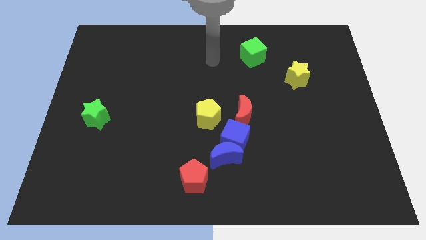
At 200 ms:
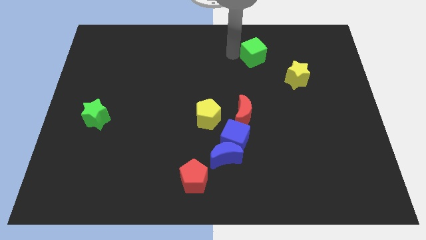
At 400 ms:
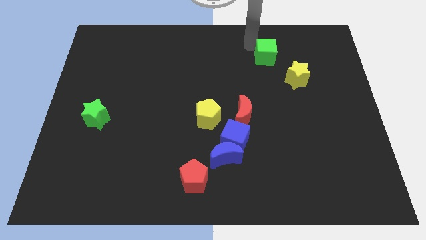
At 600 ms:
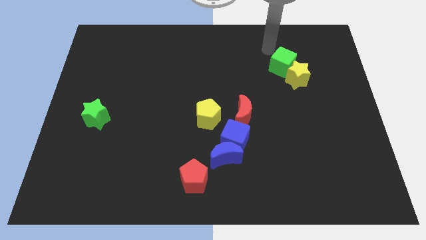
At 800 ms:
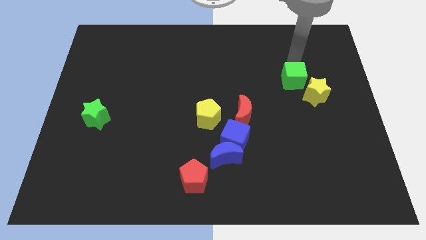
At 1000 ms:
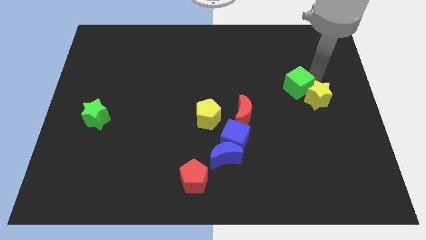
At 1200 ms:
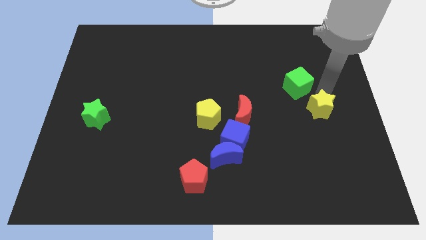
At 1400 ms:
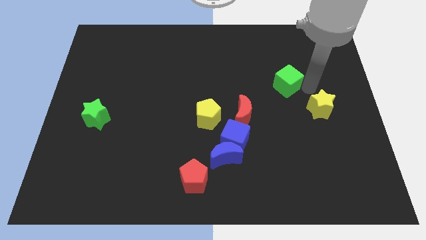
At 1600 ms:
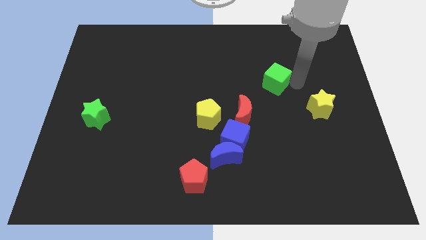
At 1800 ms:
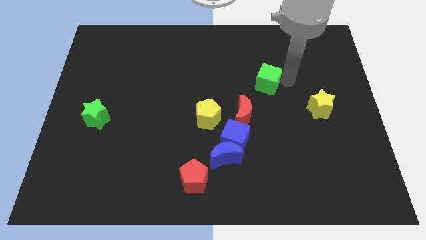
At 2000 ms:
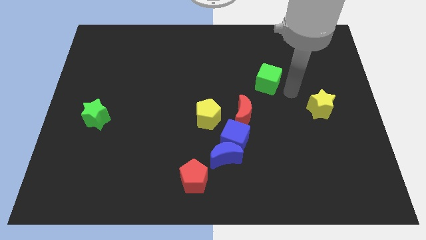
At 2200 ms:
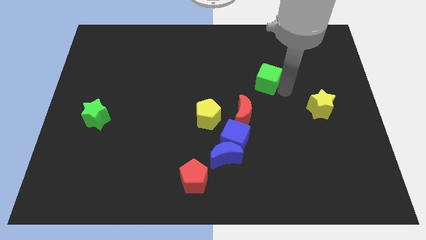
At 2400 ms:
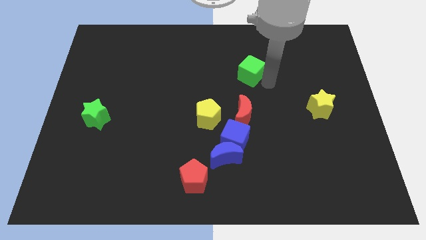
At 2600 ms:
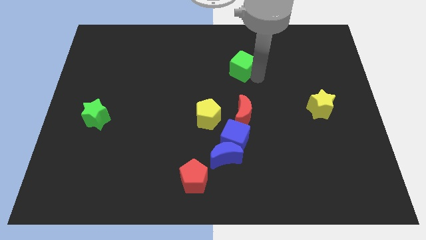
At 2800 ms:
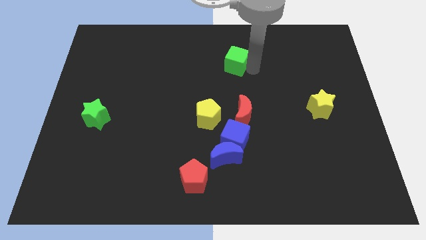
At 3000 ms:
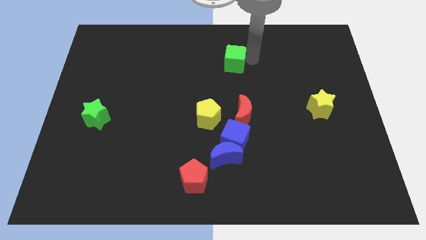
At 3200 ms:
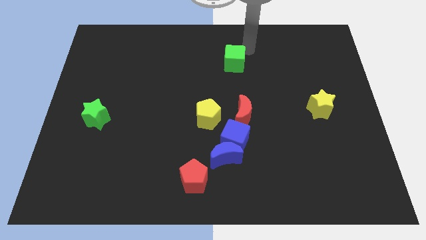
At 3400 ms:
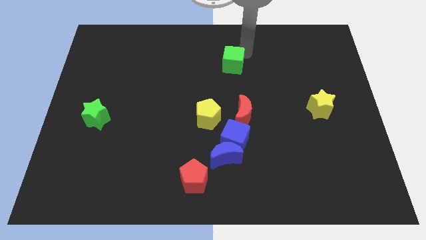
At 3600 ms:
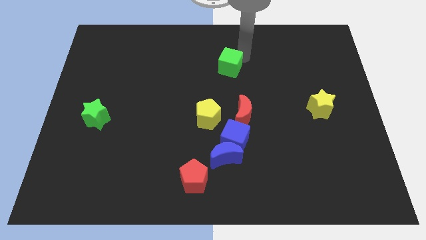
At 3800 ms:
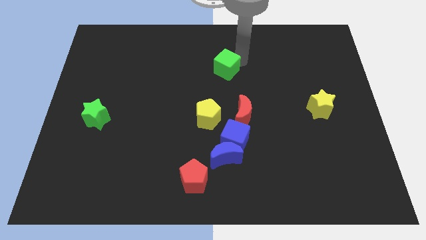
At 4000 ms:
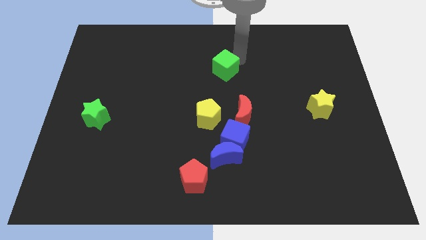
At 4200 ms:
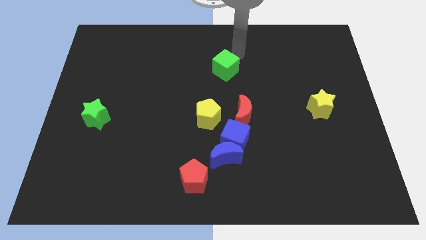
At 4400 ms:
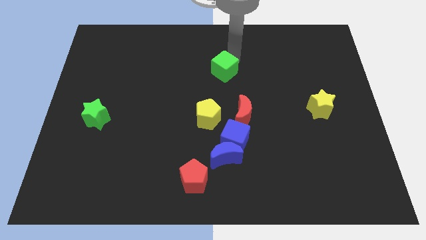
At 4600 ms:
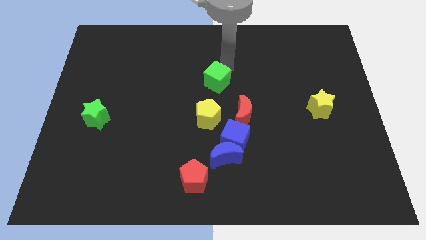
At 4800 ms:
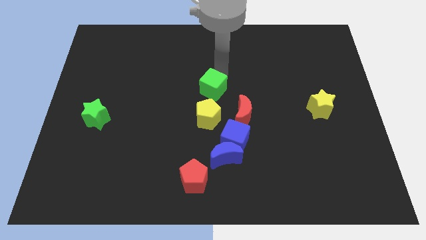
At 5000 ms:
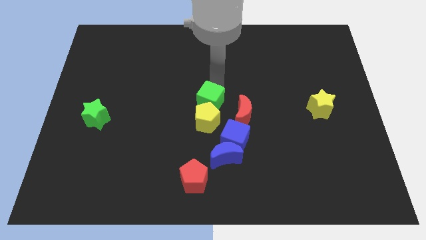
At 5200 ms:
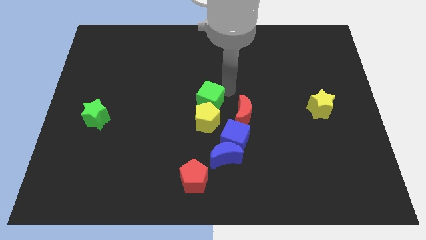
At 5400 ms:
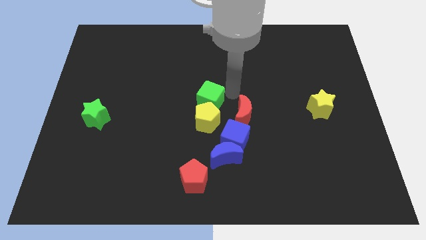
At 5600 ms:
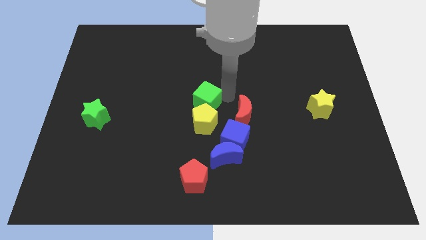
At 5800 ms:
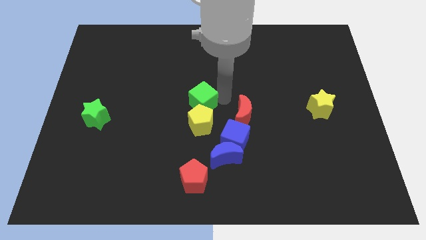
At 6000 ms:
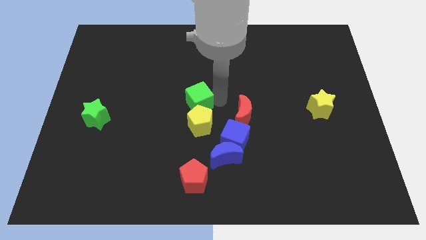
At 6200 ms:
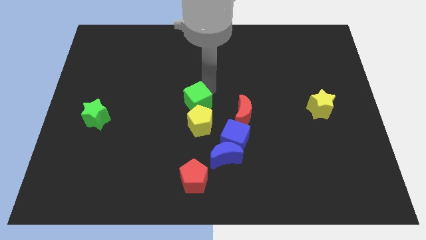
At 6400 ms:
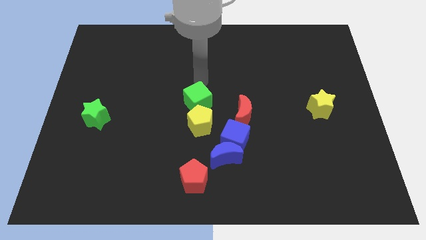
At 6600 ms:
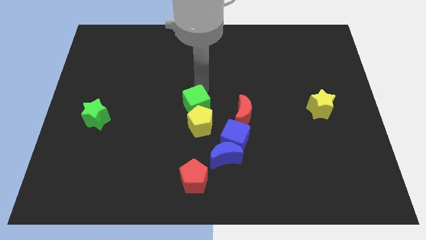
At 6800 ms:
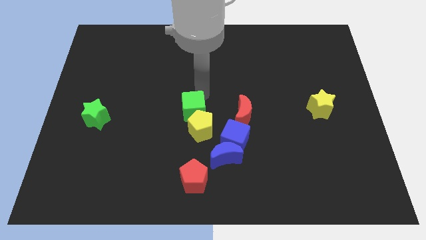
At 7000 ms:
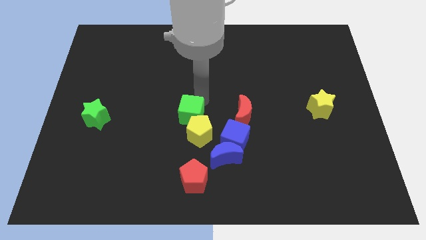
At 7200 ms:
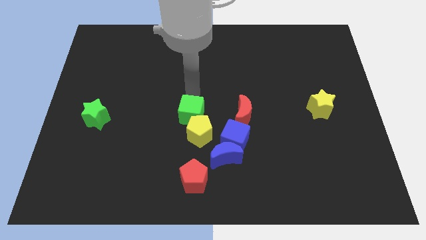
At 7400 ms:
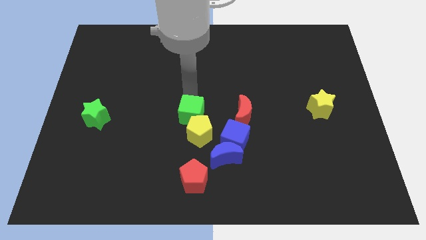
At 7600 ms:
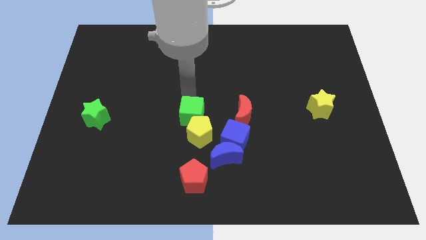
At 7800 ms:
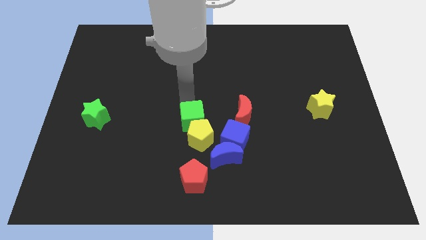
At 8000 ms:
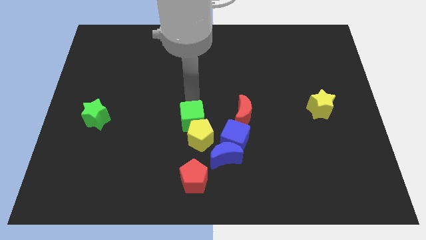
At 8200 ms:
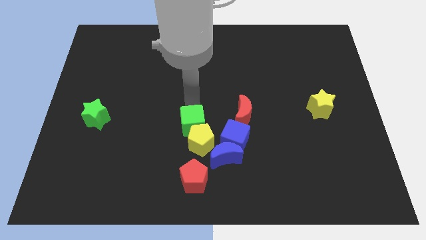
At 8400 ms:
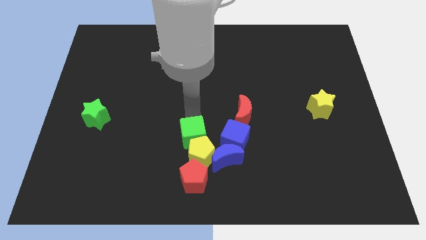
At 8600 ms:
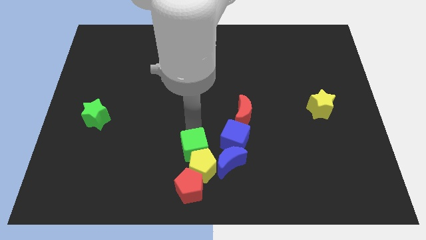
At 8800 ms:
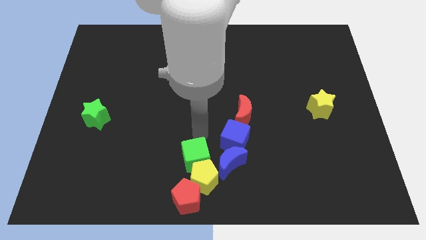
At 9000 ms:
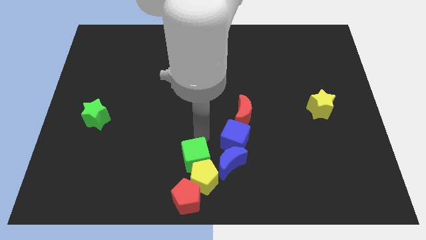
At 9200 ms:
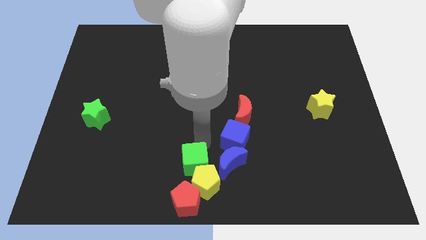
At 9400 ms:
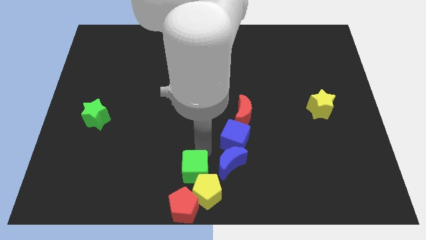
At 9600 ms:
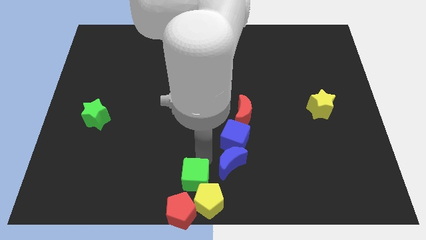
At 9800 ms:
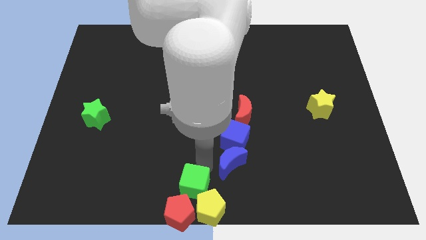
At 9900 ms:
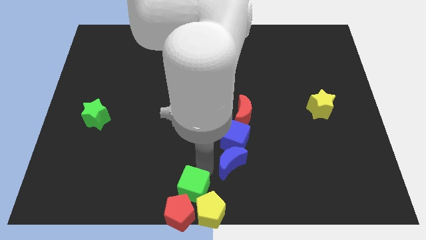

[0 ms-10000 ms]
put the green cube next to the red pentagon

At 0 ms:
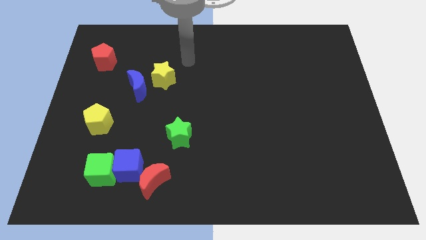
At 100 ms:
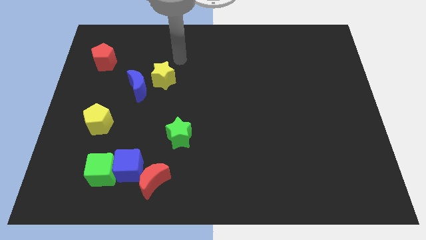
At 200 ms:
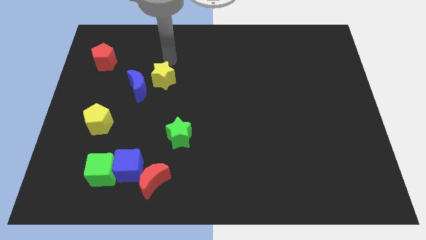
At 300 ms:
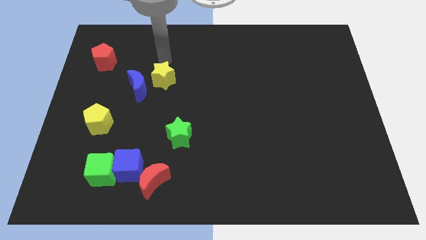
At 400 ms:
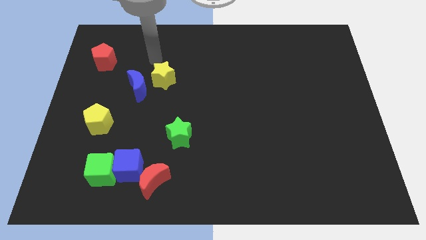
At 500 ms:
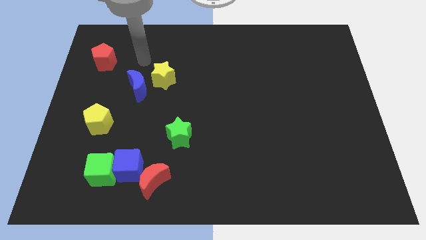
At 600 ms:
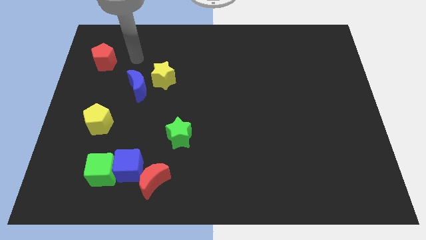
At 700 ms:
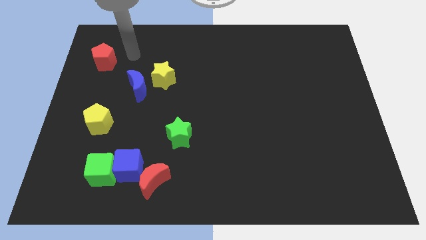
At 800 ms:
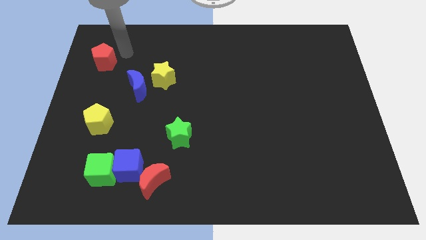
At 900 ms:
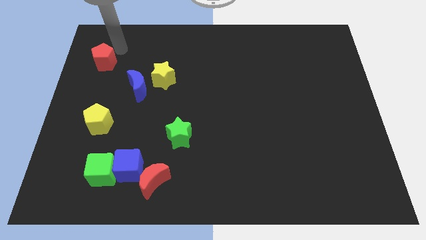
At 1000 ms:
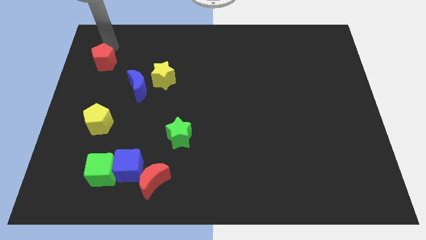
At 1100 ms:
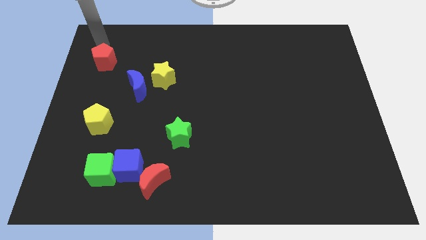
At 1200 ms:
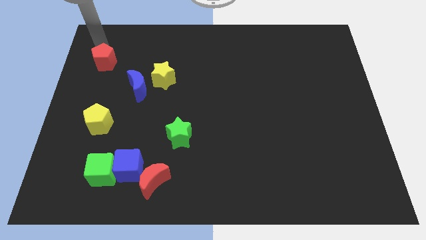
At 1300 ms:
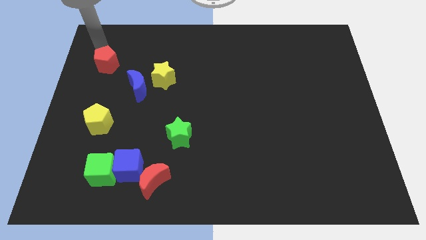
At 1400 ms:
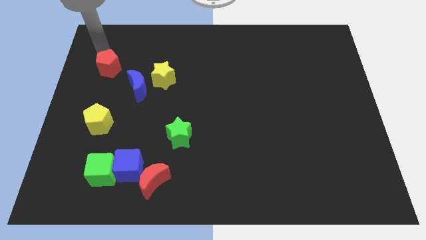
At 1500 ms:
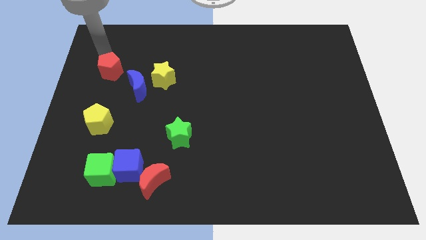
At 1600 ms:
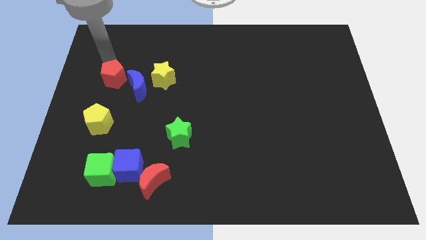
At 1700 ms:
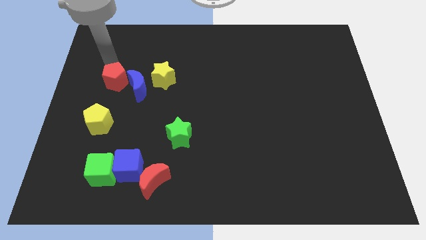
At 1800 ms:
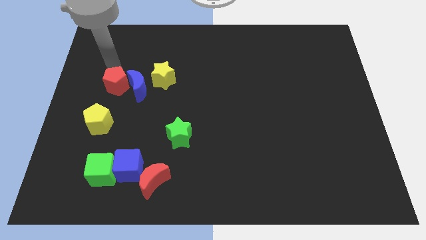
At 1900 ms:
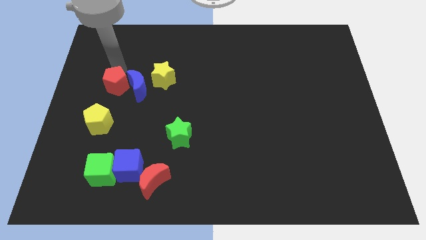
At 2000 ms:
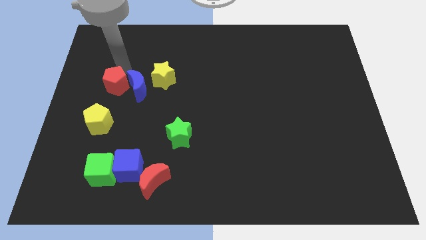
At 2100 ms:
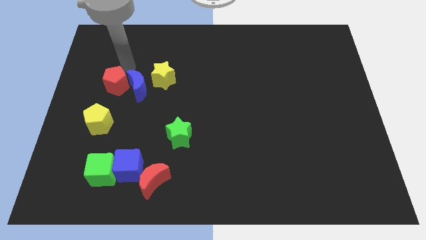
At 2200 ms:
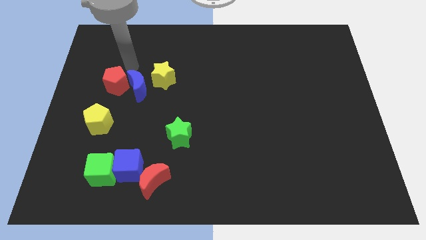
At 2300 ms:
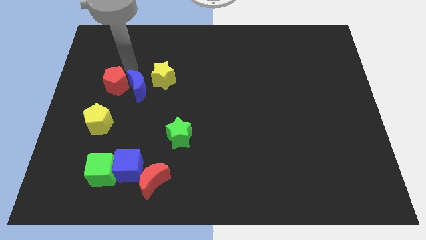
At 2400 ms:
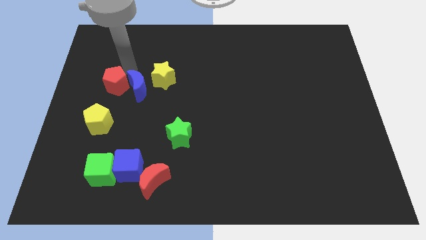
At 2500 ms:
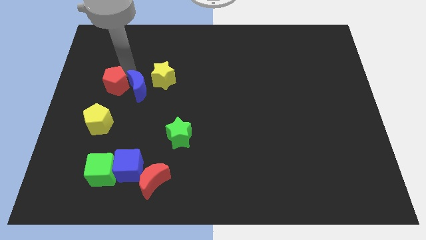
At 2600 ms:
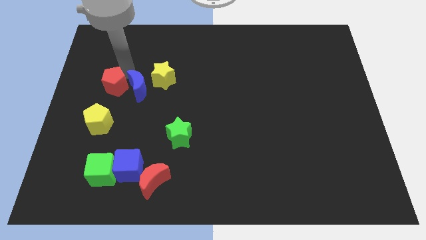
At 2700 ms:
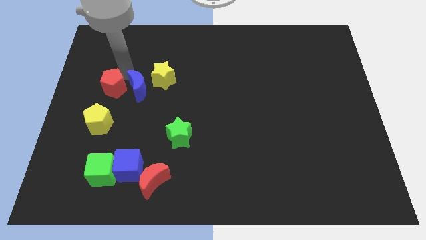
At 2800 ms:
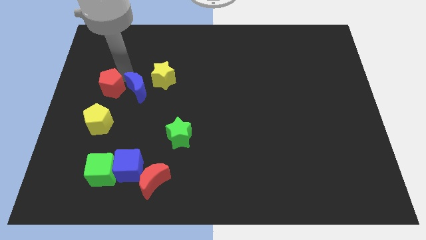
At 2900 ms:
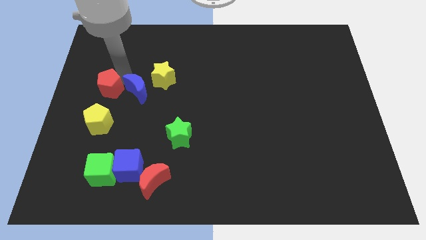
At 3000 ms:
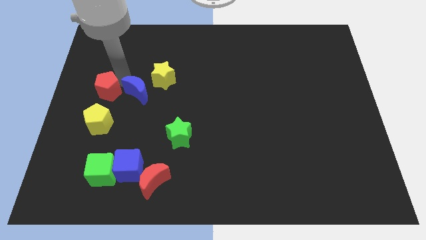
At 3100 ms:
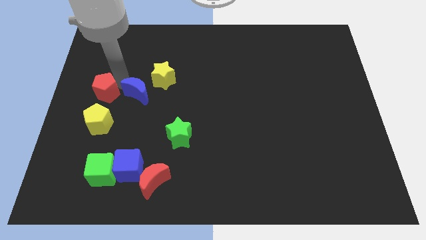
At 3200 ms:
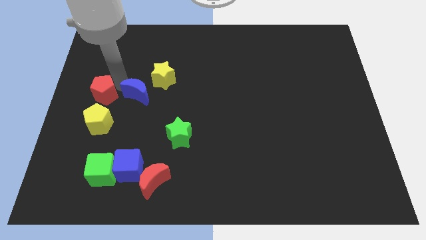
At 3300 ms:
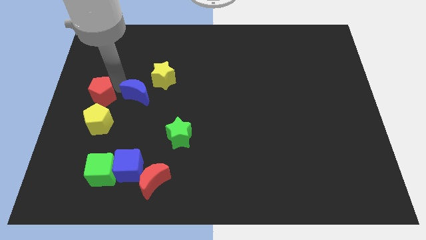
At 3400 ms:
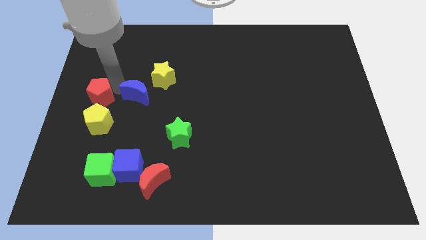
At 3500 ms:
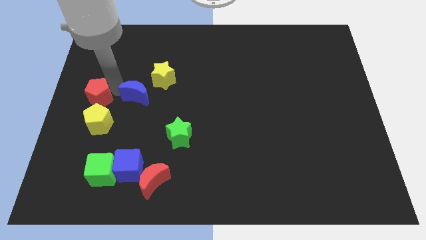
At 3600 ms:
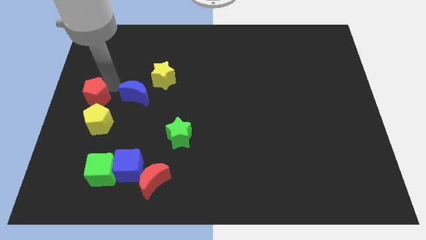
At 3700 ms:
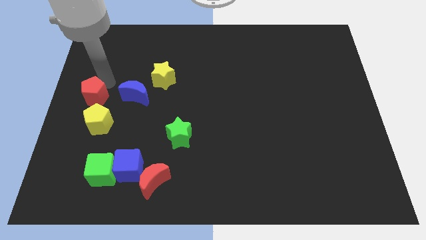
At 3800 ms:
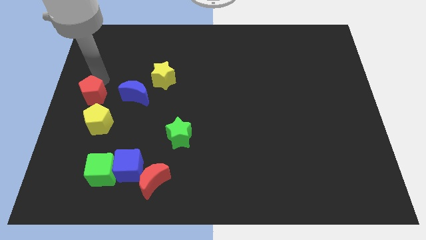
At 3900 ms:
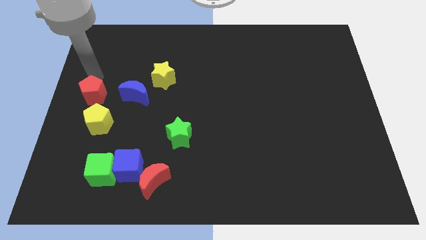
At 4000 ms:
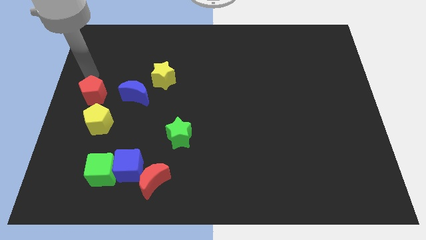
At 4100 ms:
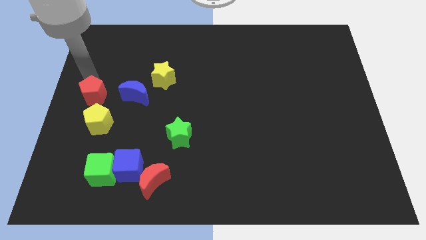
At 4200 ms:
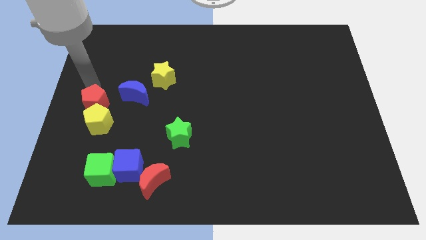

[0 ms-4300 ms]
put the red pentagon towards the yellow pentagon
